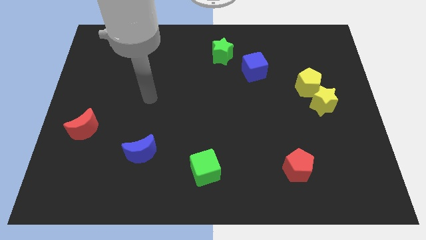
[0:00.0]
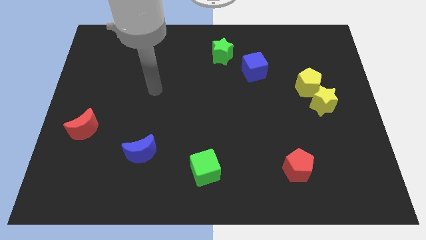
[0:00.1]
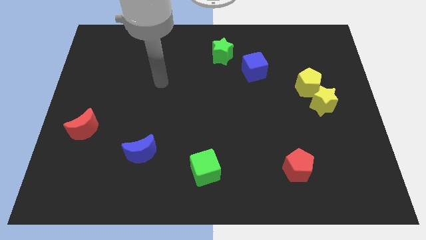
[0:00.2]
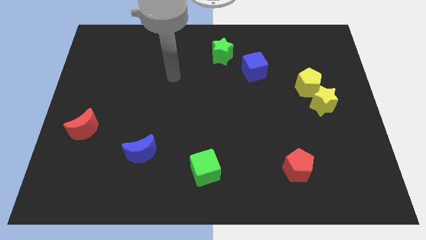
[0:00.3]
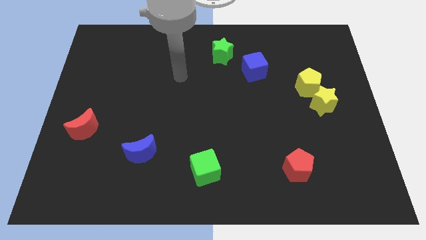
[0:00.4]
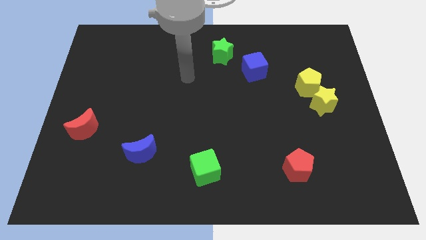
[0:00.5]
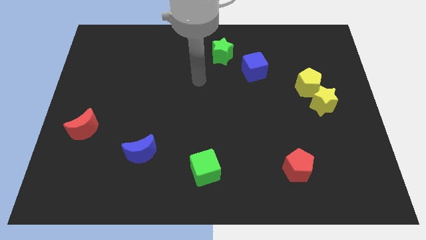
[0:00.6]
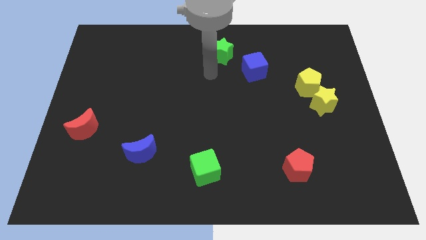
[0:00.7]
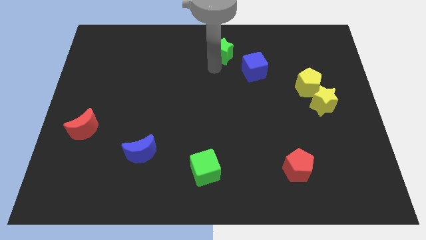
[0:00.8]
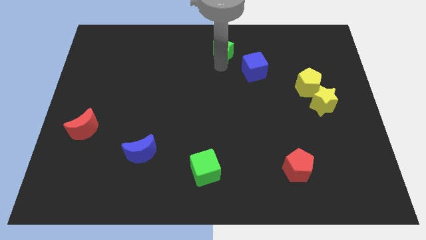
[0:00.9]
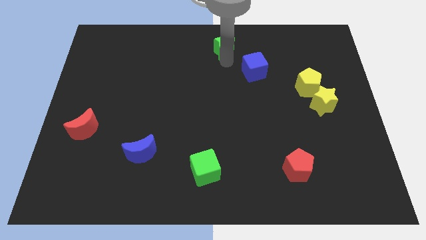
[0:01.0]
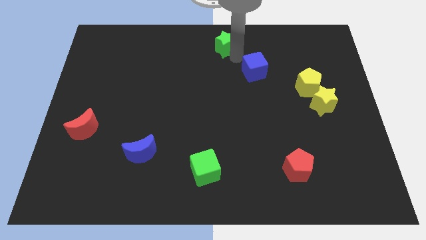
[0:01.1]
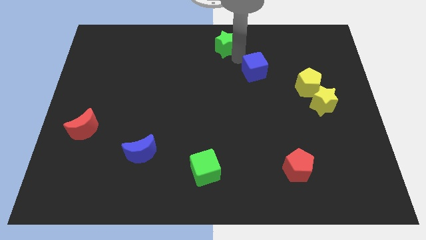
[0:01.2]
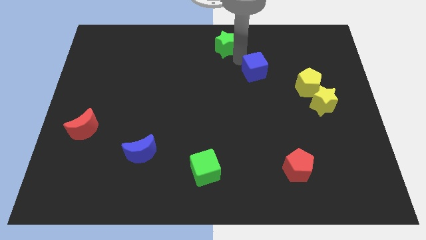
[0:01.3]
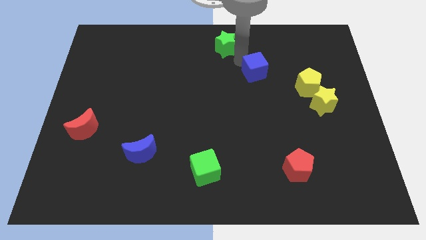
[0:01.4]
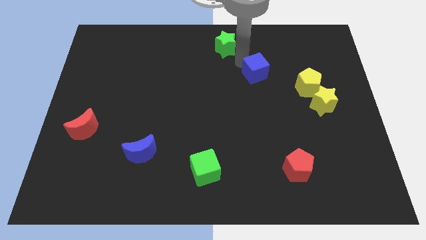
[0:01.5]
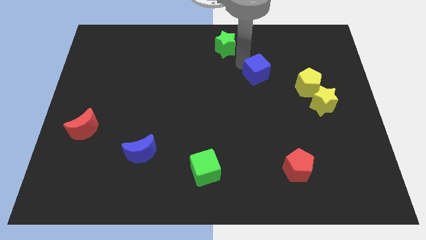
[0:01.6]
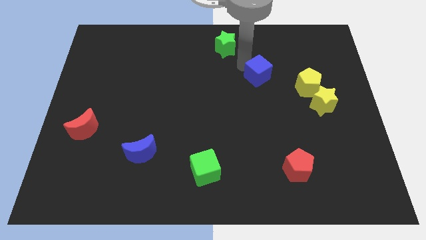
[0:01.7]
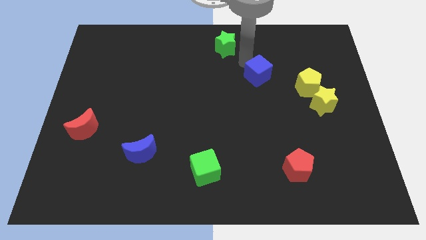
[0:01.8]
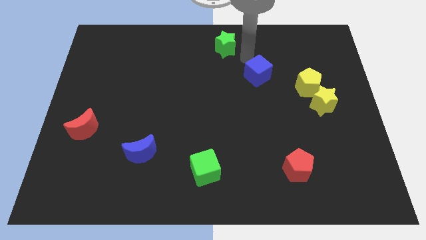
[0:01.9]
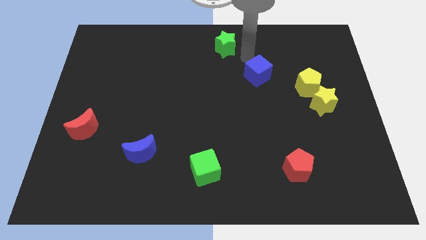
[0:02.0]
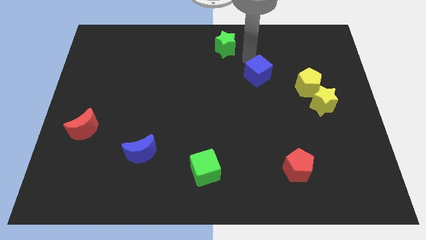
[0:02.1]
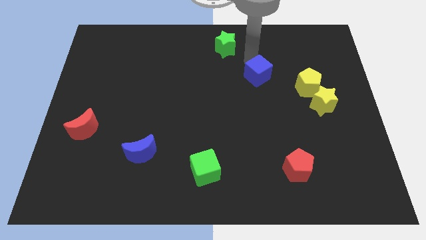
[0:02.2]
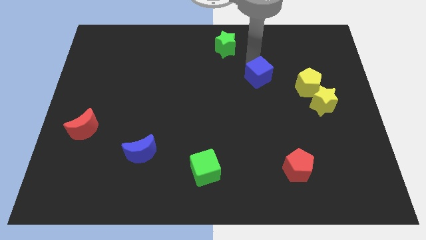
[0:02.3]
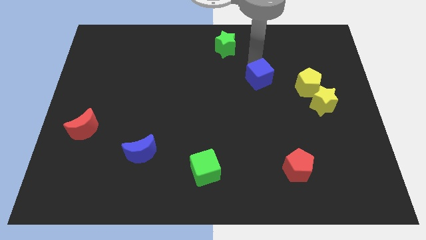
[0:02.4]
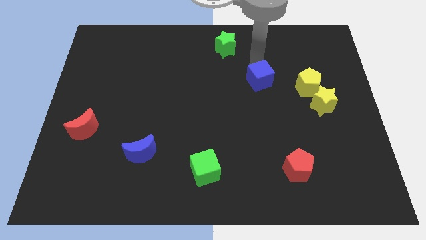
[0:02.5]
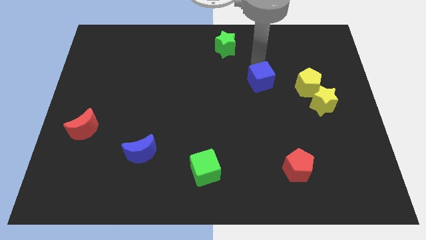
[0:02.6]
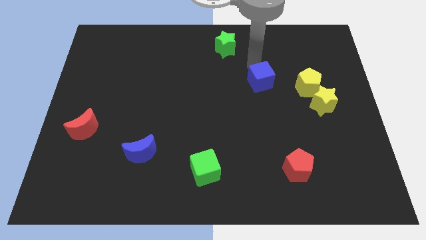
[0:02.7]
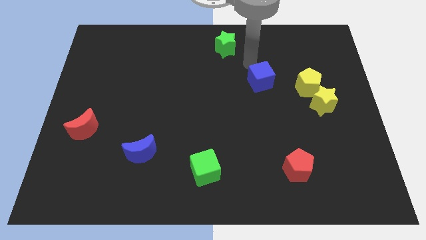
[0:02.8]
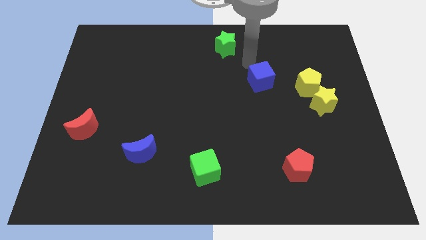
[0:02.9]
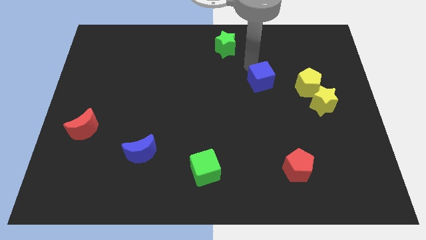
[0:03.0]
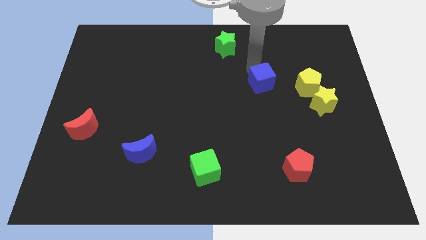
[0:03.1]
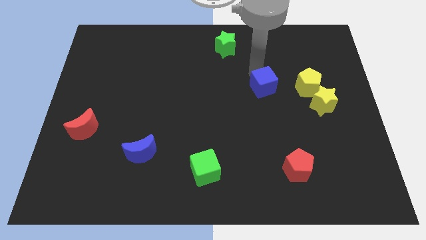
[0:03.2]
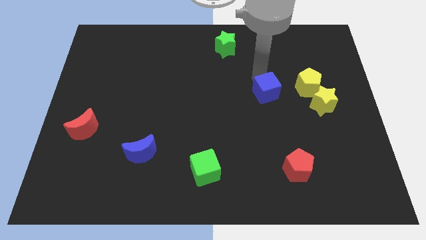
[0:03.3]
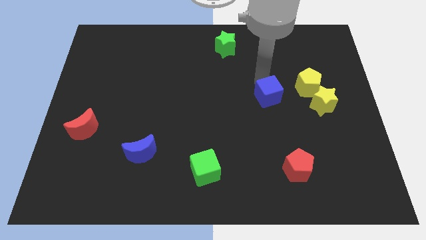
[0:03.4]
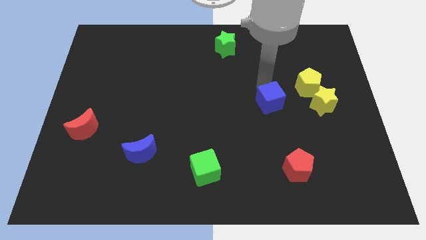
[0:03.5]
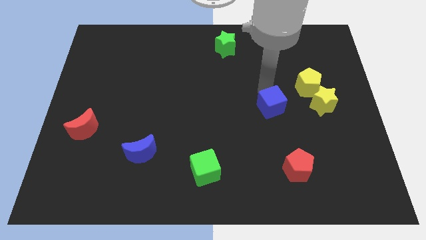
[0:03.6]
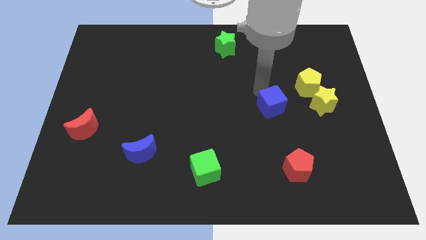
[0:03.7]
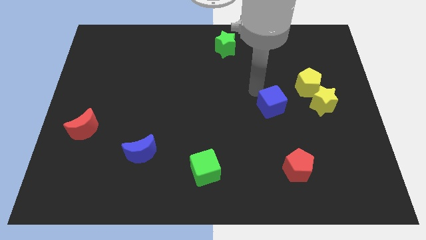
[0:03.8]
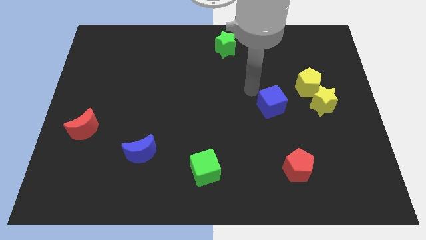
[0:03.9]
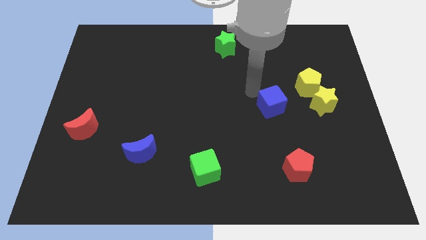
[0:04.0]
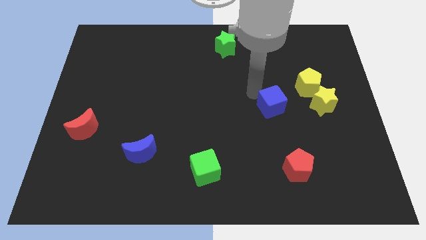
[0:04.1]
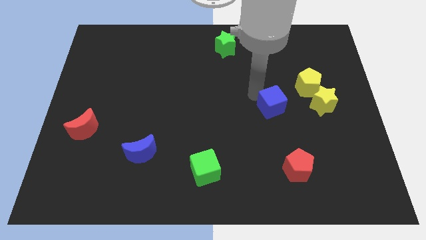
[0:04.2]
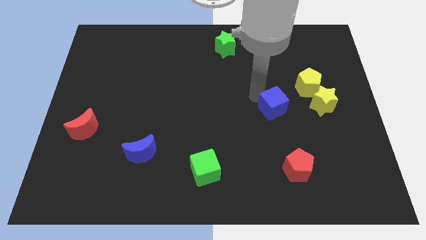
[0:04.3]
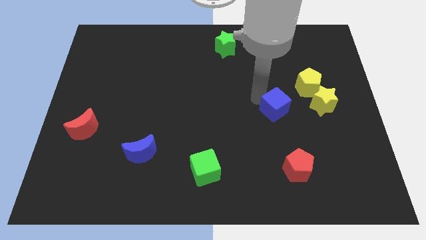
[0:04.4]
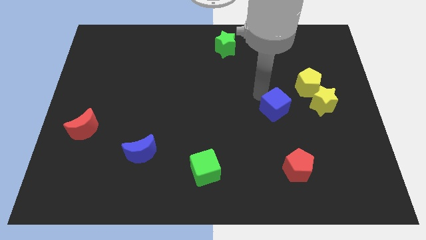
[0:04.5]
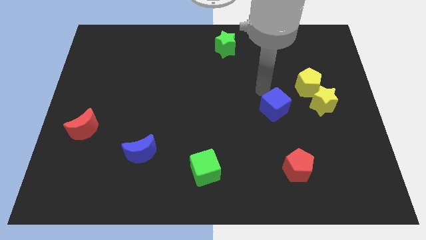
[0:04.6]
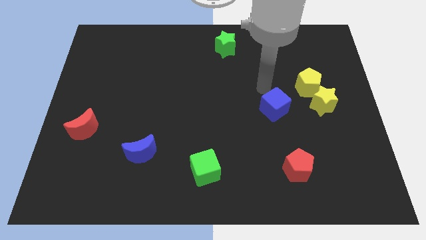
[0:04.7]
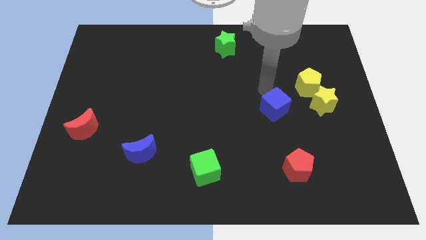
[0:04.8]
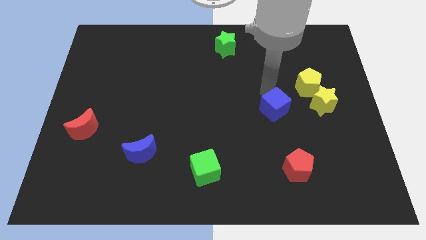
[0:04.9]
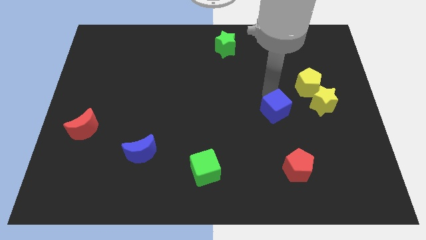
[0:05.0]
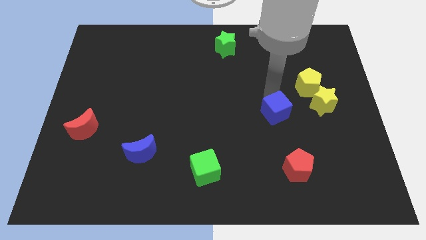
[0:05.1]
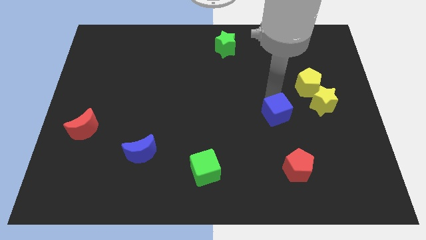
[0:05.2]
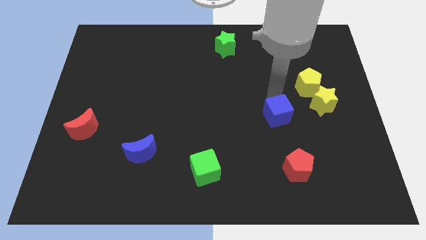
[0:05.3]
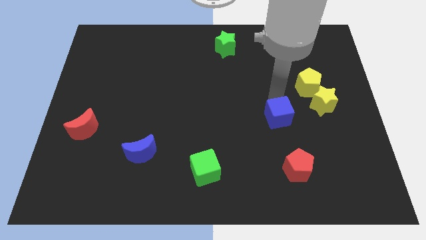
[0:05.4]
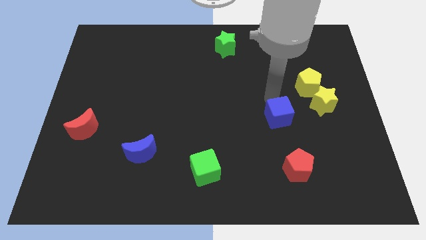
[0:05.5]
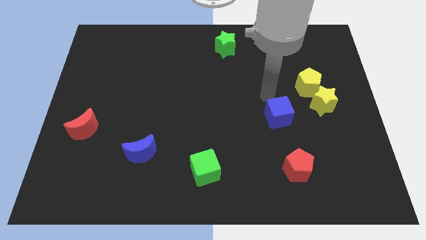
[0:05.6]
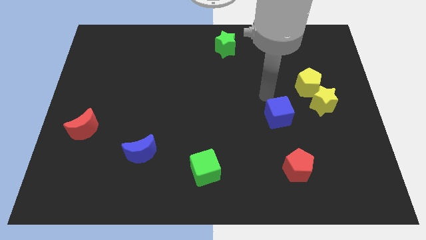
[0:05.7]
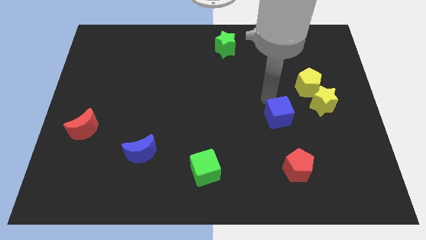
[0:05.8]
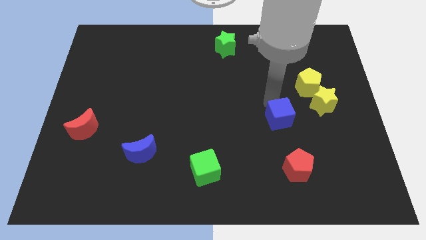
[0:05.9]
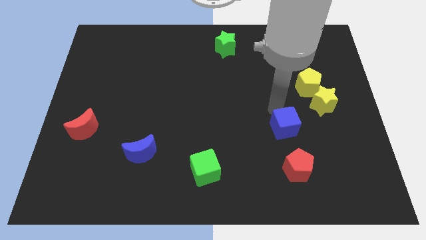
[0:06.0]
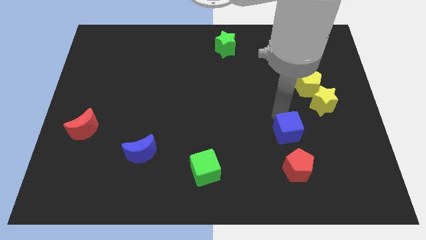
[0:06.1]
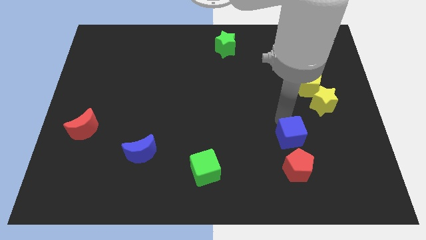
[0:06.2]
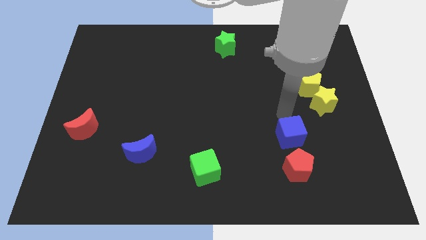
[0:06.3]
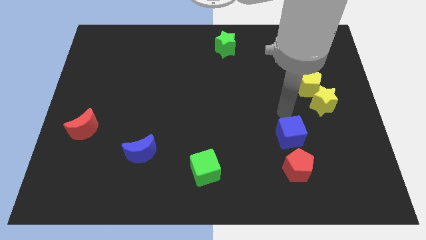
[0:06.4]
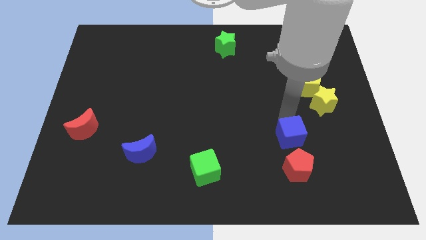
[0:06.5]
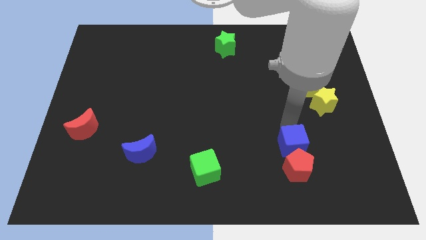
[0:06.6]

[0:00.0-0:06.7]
move the blue cube towards the red pentagon
